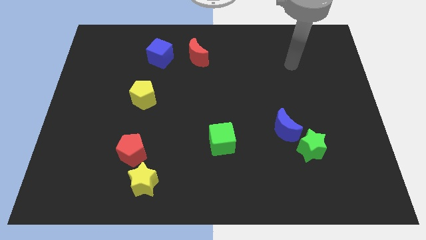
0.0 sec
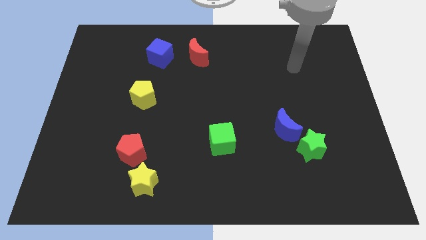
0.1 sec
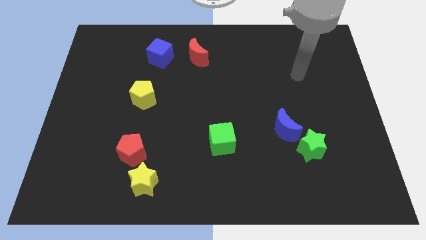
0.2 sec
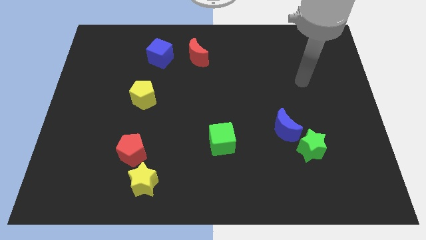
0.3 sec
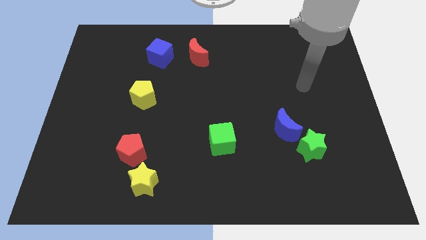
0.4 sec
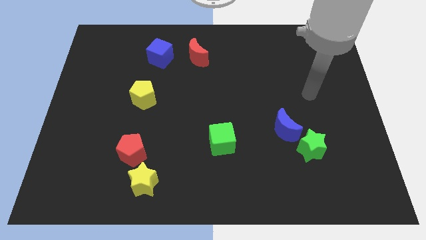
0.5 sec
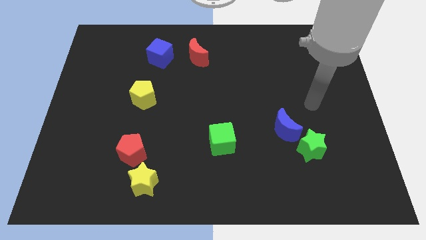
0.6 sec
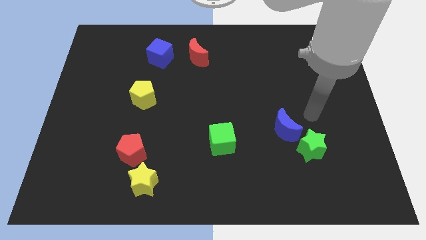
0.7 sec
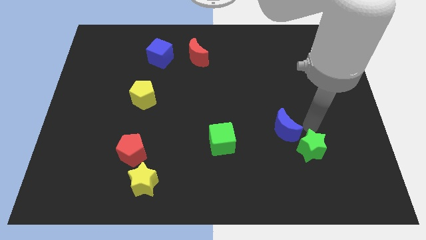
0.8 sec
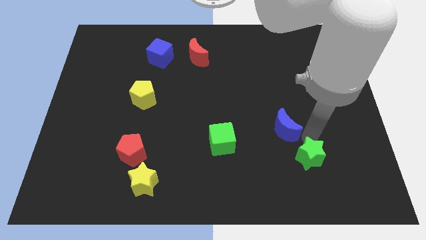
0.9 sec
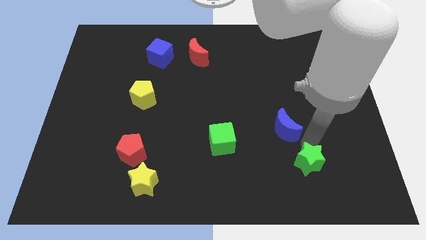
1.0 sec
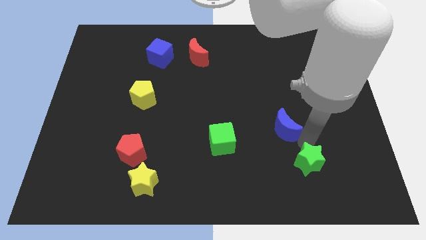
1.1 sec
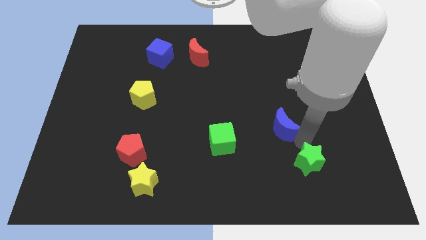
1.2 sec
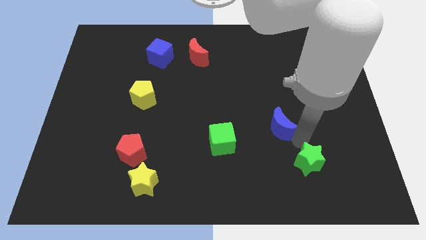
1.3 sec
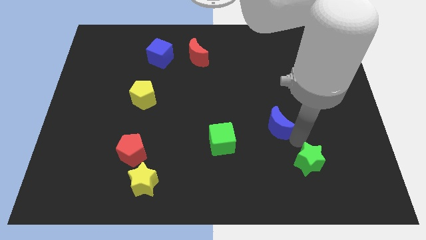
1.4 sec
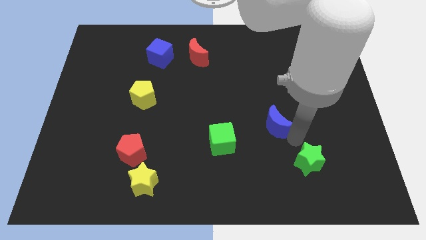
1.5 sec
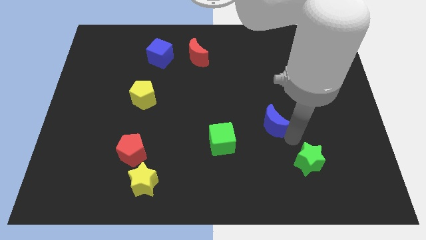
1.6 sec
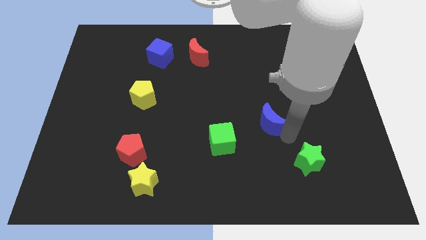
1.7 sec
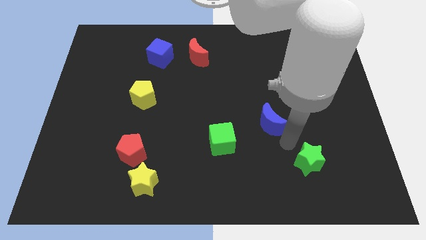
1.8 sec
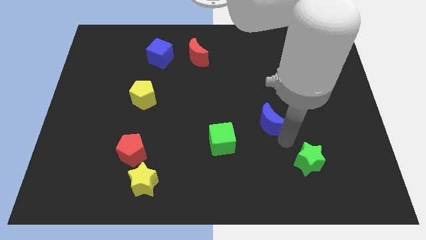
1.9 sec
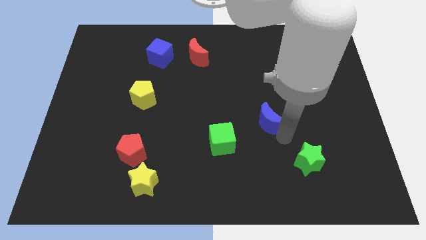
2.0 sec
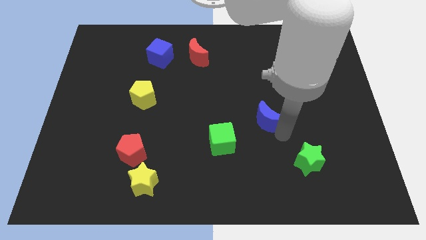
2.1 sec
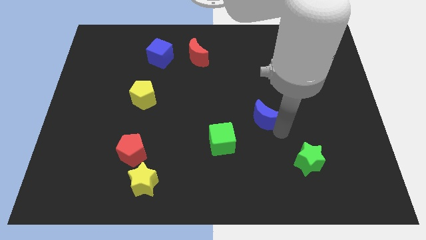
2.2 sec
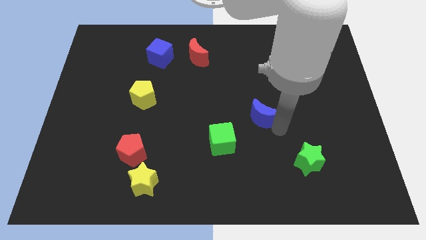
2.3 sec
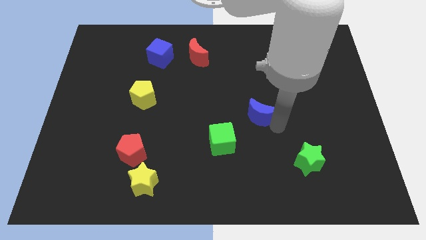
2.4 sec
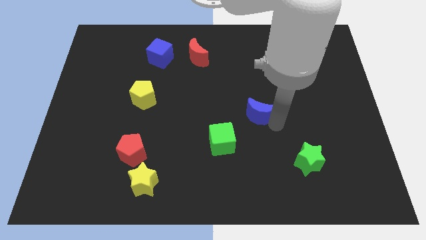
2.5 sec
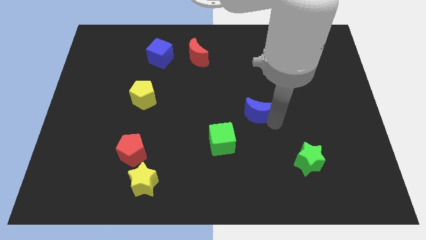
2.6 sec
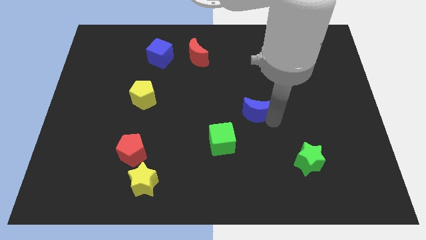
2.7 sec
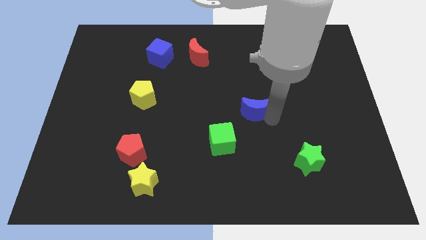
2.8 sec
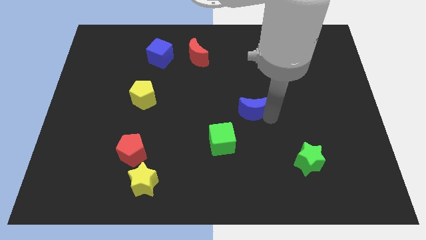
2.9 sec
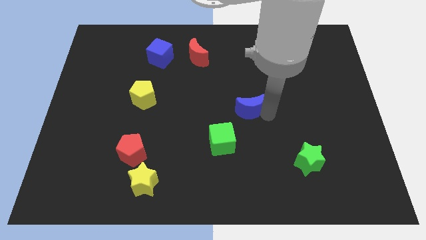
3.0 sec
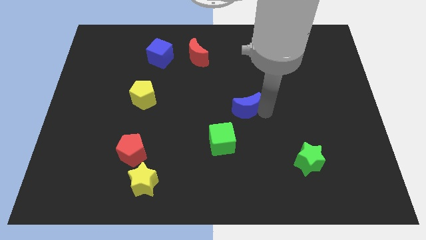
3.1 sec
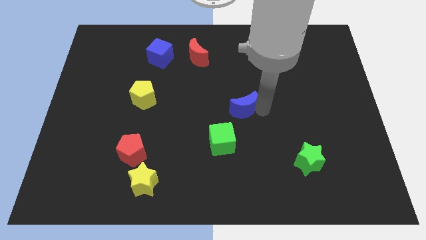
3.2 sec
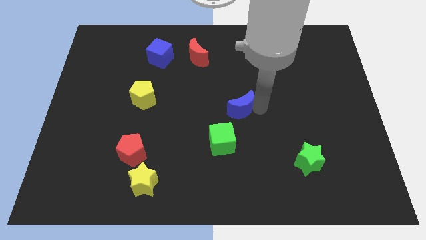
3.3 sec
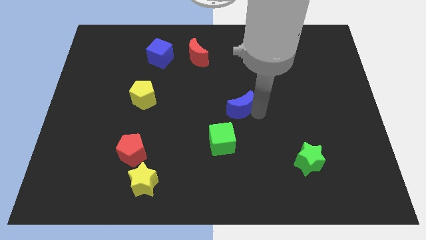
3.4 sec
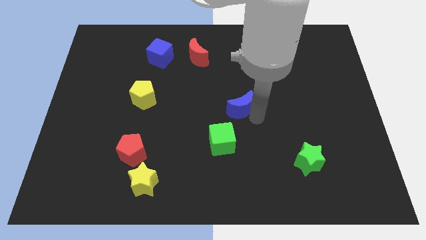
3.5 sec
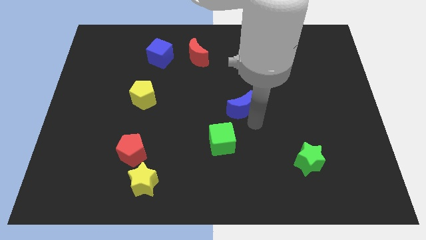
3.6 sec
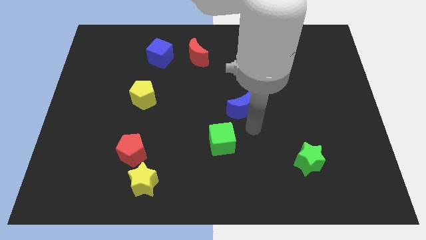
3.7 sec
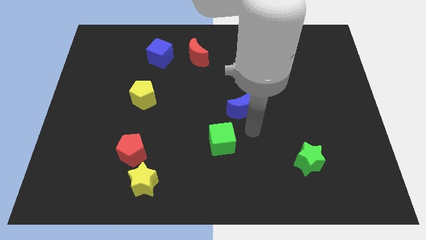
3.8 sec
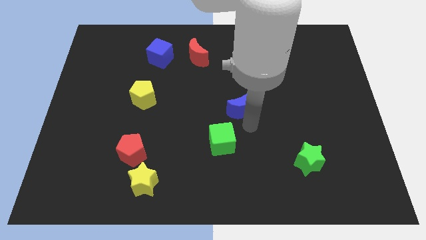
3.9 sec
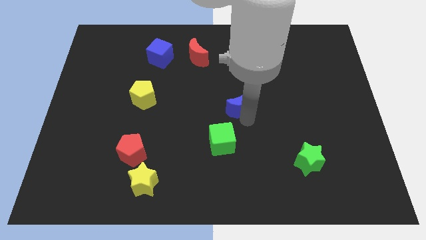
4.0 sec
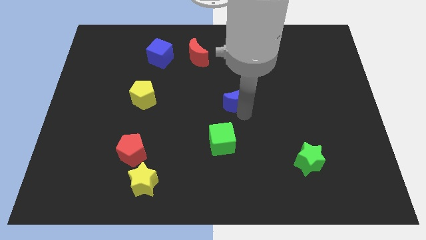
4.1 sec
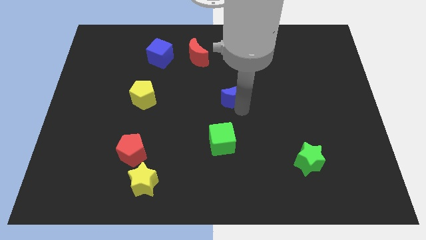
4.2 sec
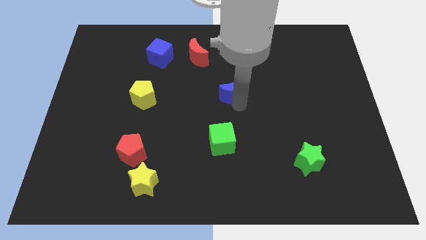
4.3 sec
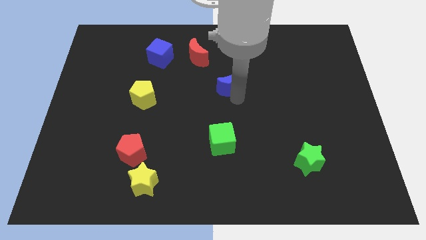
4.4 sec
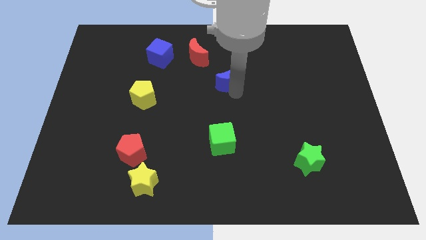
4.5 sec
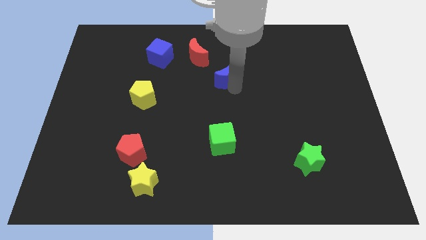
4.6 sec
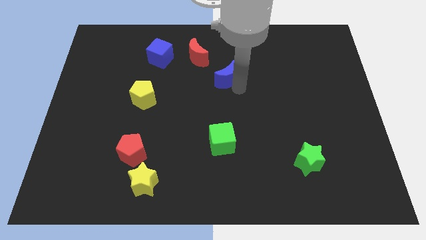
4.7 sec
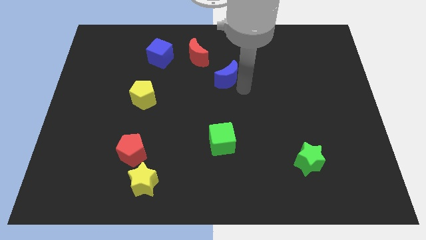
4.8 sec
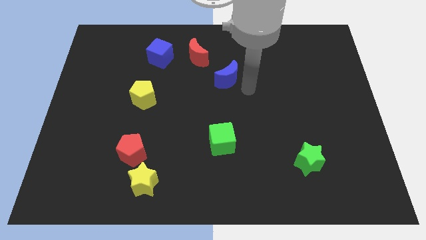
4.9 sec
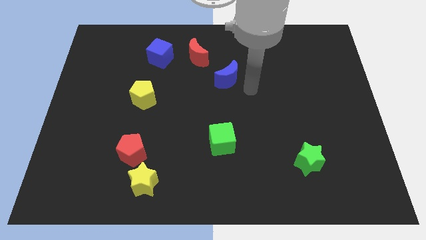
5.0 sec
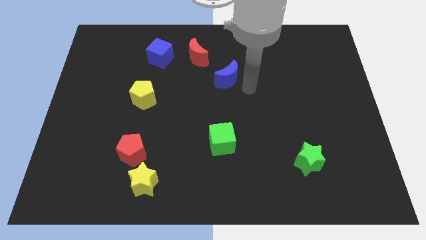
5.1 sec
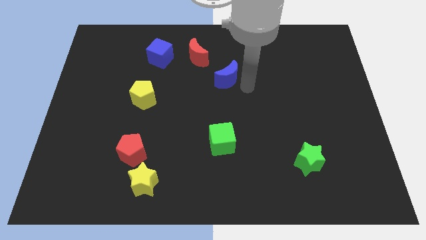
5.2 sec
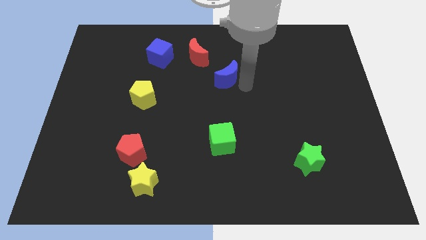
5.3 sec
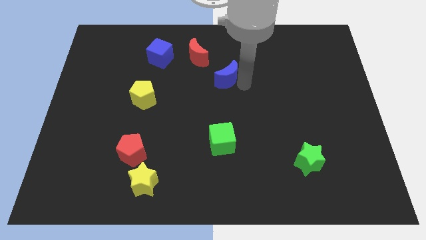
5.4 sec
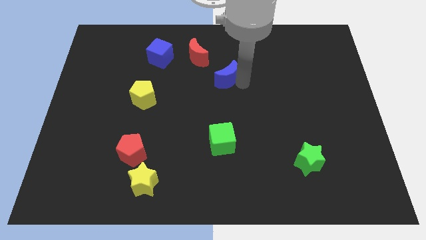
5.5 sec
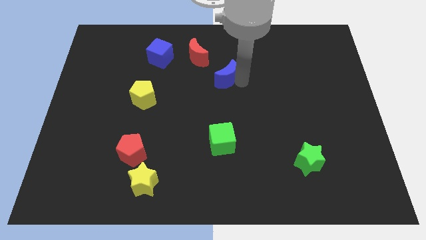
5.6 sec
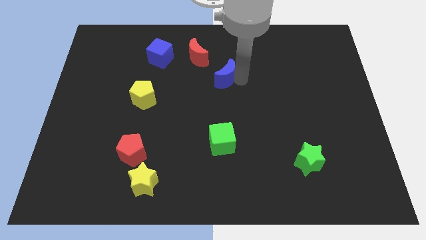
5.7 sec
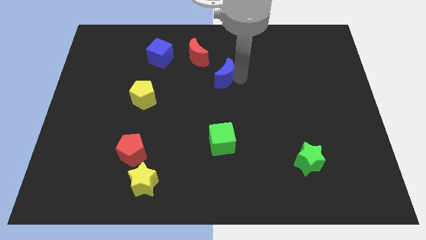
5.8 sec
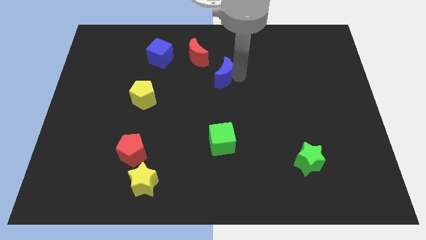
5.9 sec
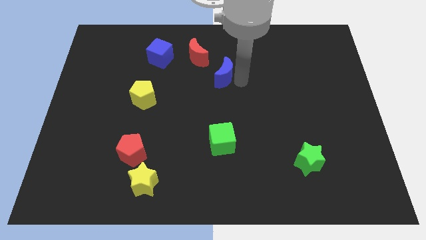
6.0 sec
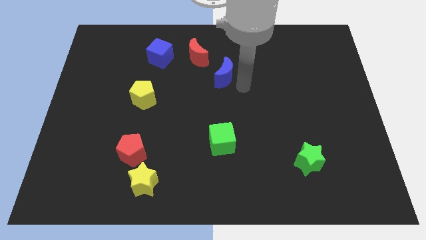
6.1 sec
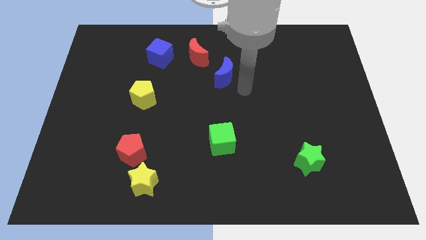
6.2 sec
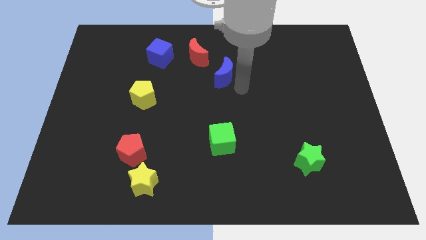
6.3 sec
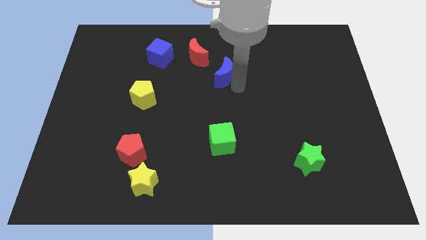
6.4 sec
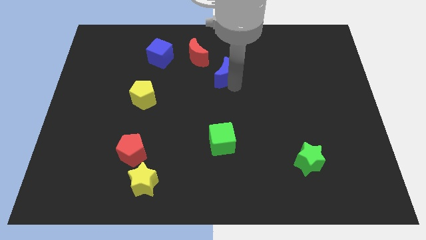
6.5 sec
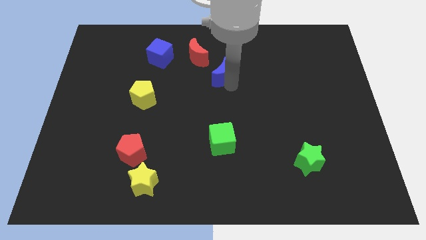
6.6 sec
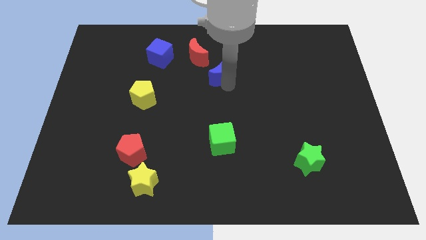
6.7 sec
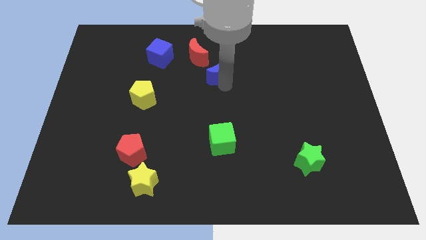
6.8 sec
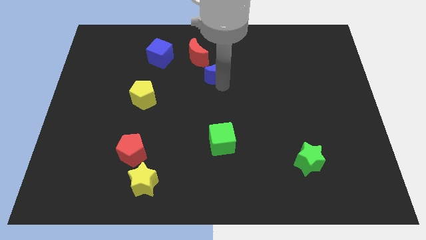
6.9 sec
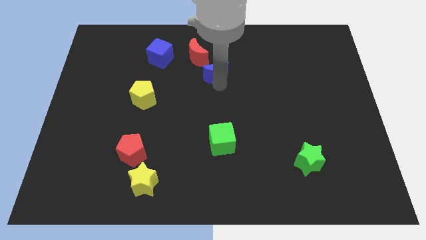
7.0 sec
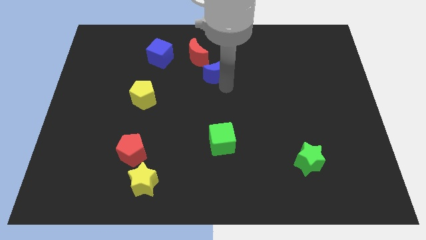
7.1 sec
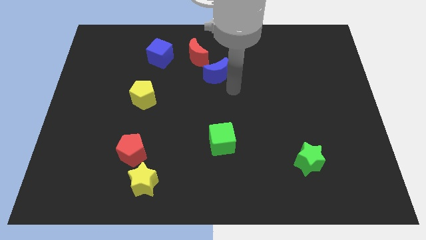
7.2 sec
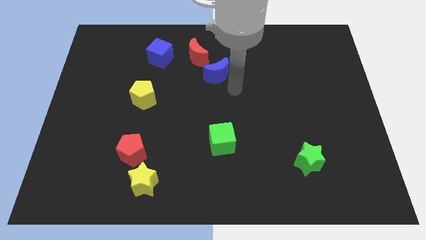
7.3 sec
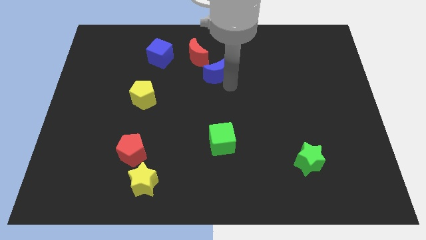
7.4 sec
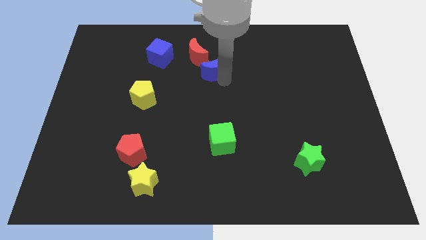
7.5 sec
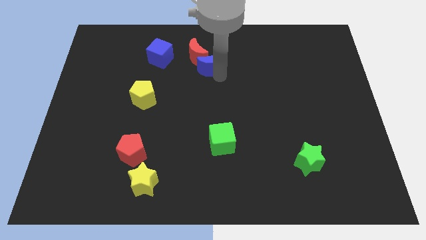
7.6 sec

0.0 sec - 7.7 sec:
push the blue moon next to the red moon
